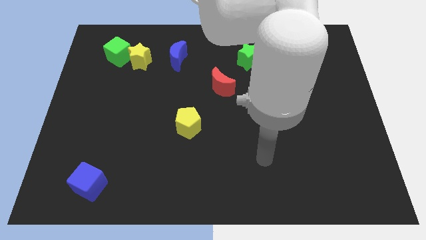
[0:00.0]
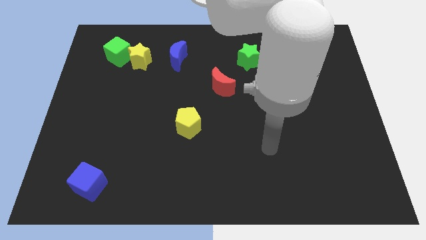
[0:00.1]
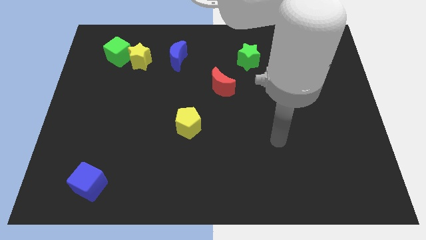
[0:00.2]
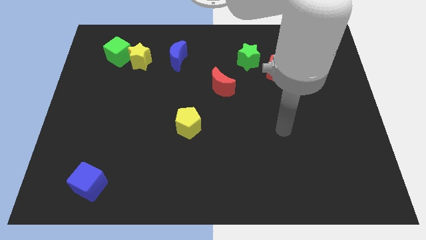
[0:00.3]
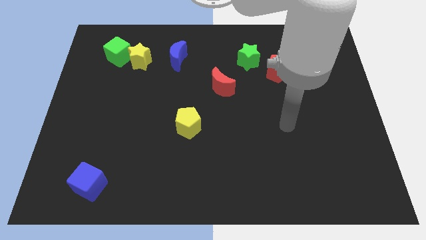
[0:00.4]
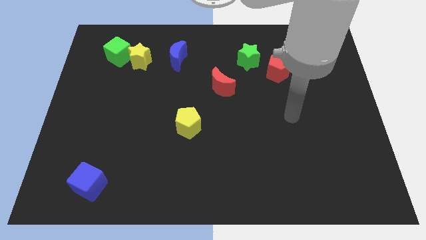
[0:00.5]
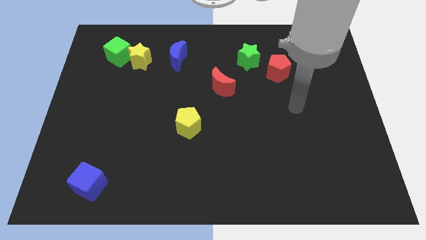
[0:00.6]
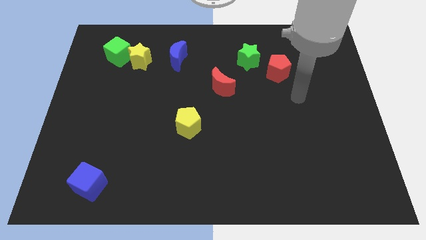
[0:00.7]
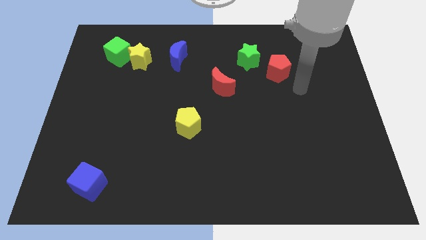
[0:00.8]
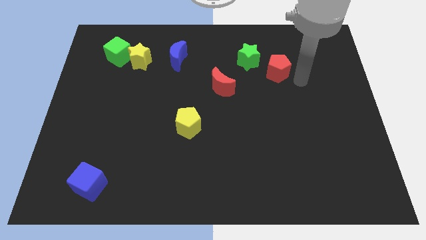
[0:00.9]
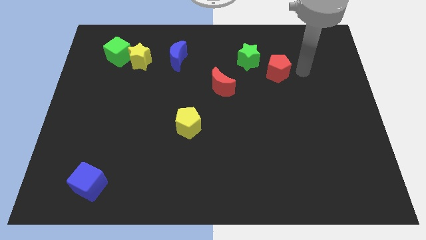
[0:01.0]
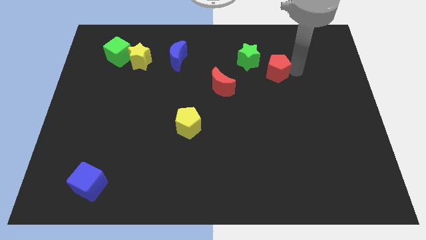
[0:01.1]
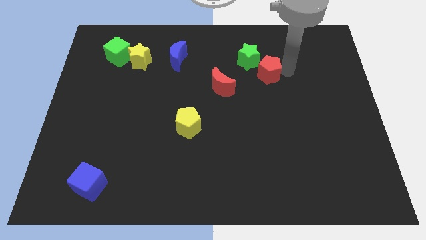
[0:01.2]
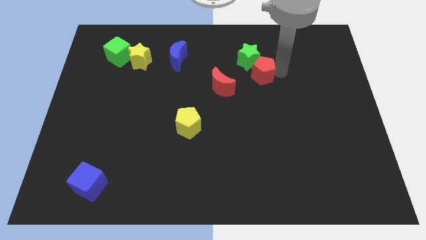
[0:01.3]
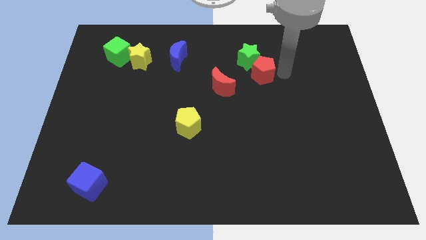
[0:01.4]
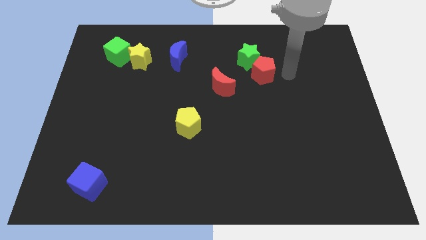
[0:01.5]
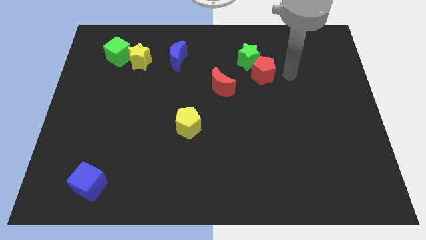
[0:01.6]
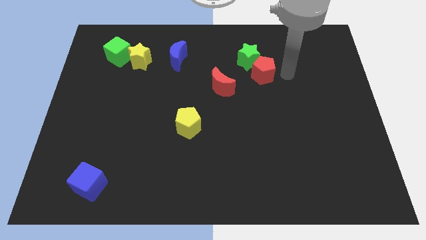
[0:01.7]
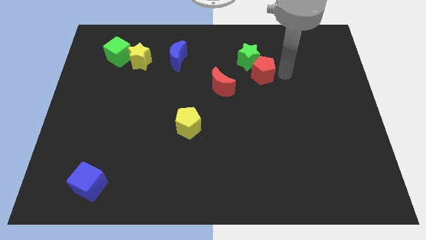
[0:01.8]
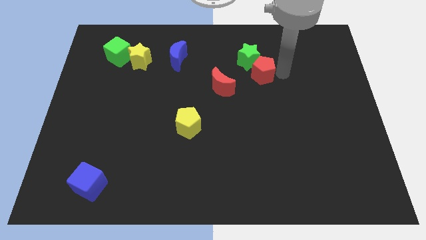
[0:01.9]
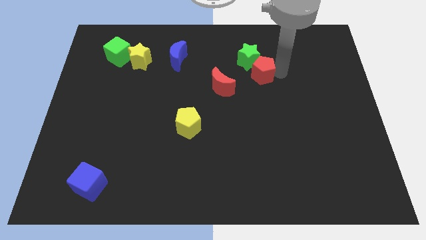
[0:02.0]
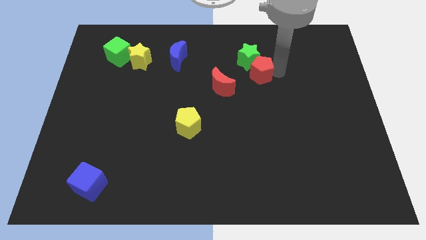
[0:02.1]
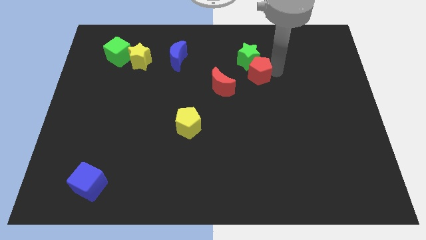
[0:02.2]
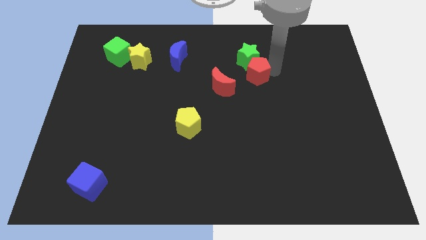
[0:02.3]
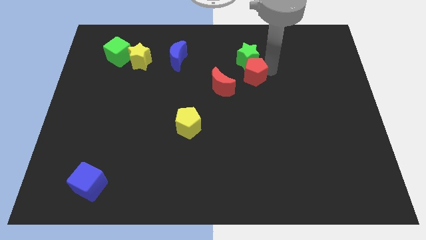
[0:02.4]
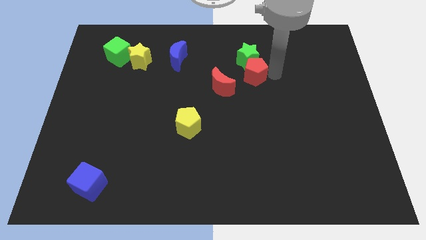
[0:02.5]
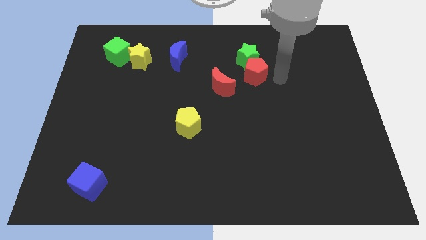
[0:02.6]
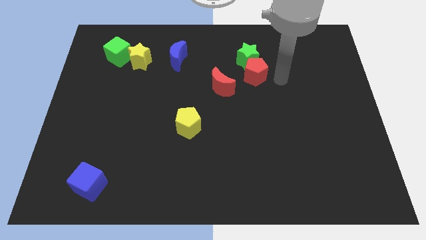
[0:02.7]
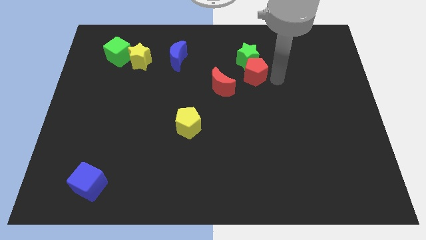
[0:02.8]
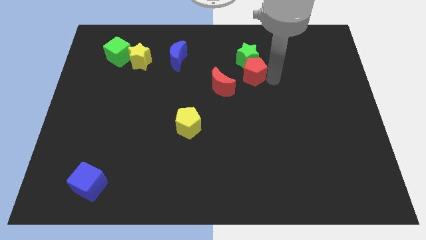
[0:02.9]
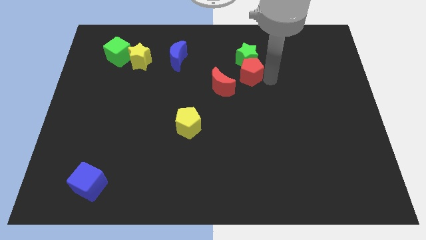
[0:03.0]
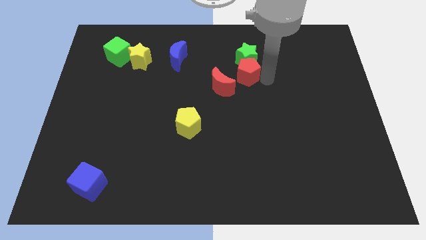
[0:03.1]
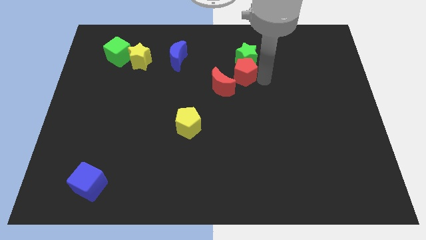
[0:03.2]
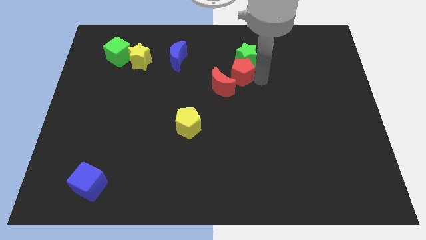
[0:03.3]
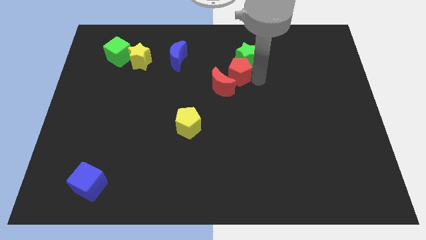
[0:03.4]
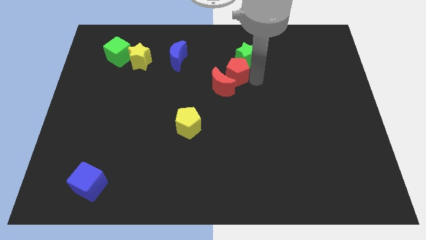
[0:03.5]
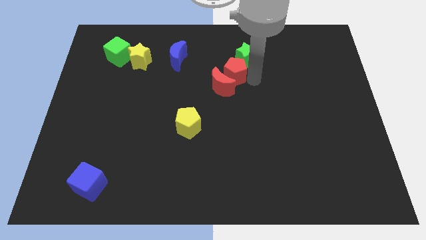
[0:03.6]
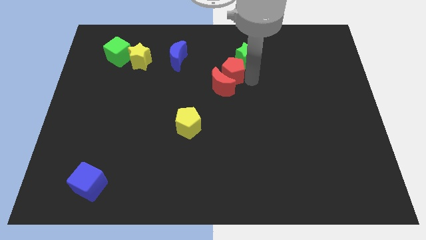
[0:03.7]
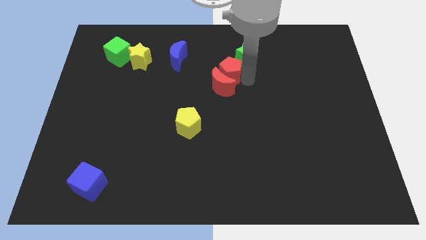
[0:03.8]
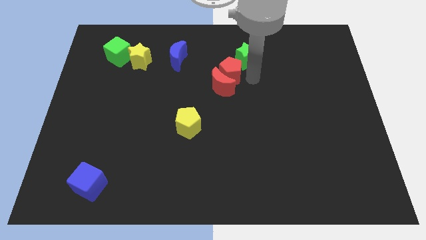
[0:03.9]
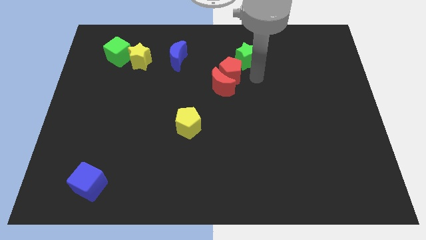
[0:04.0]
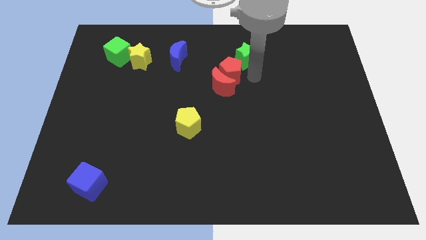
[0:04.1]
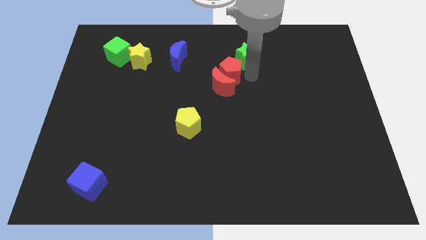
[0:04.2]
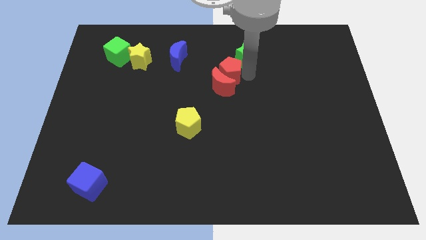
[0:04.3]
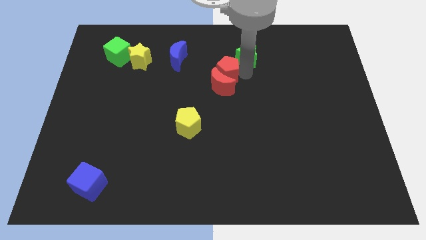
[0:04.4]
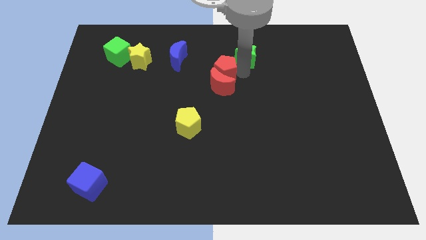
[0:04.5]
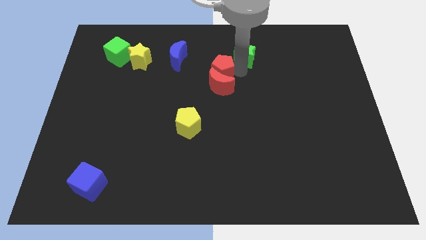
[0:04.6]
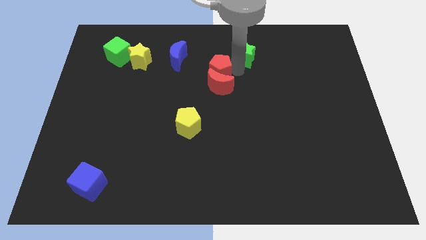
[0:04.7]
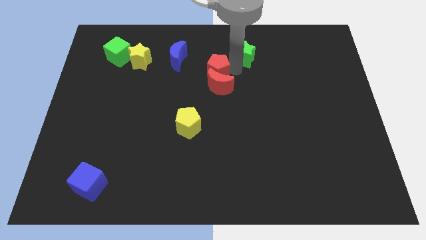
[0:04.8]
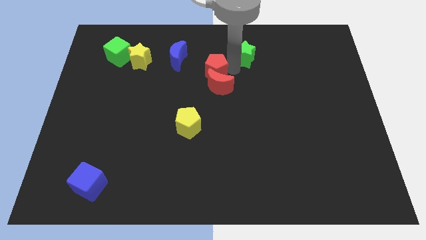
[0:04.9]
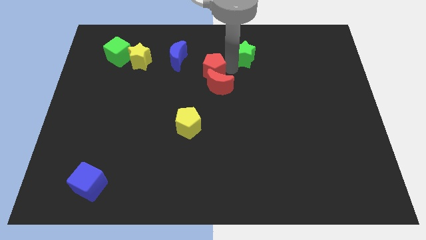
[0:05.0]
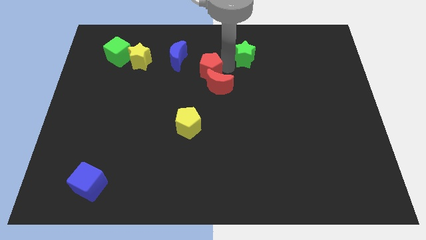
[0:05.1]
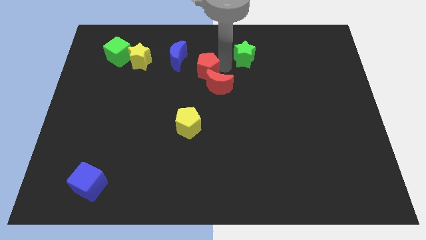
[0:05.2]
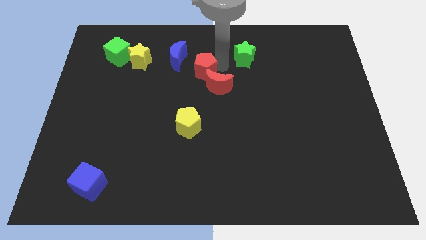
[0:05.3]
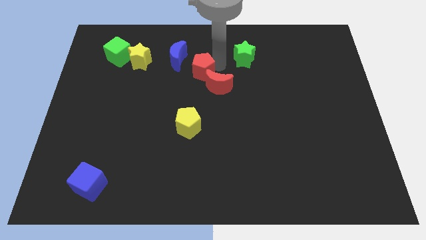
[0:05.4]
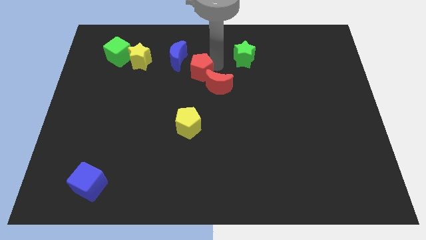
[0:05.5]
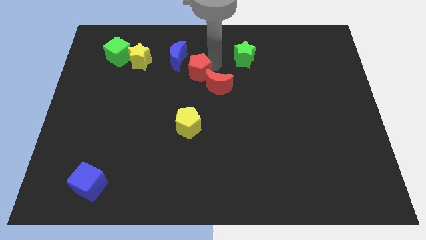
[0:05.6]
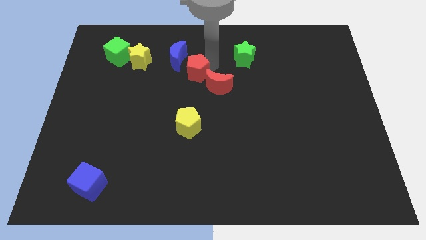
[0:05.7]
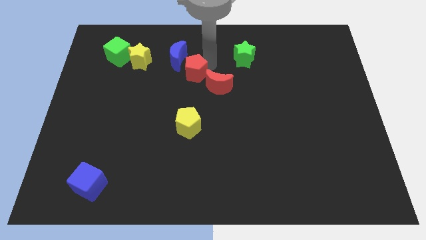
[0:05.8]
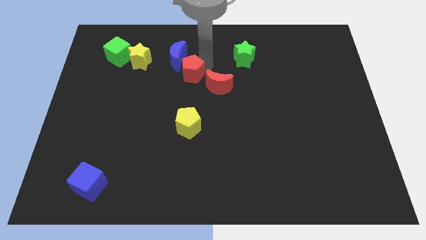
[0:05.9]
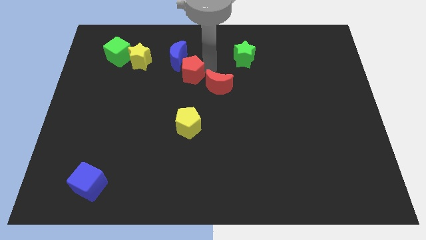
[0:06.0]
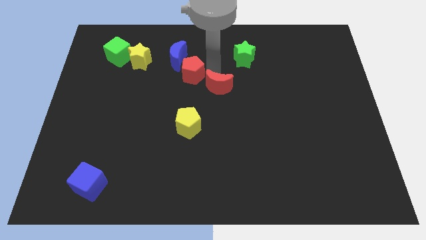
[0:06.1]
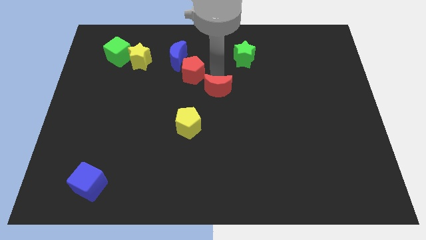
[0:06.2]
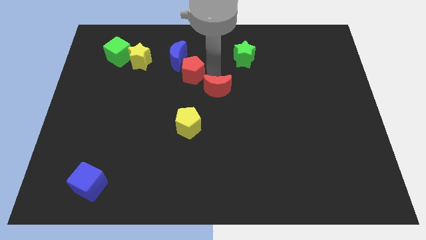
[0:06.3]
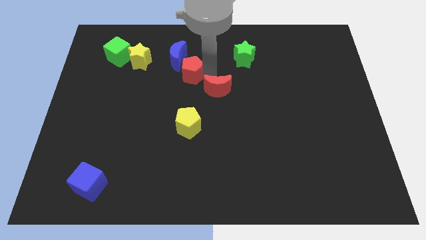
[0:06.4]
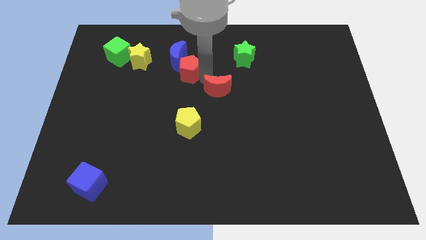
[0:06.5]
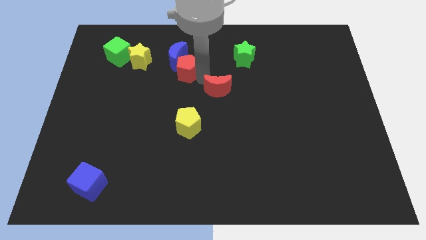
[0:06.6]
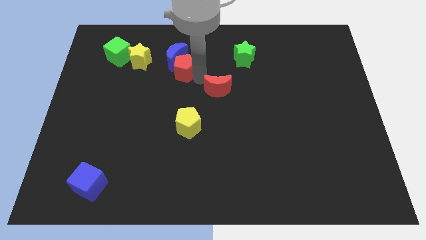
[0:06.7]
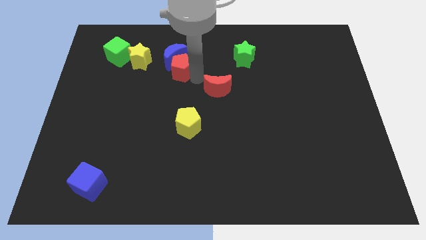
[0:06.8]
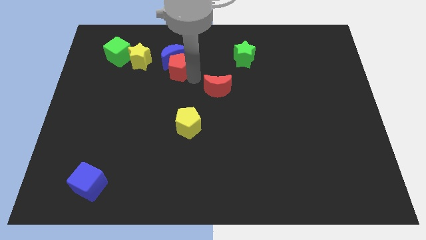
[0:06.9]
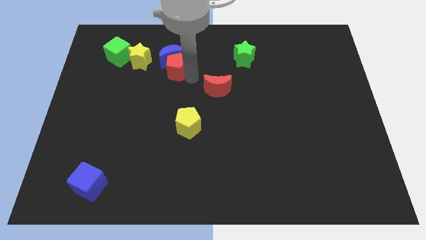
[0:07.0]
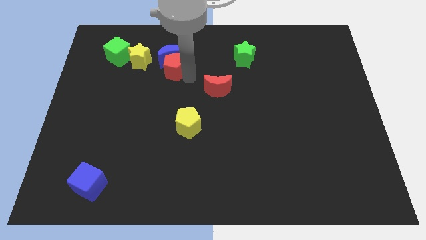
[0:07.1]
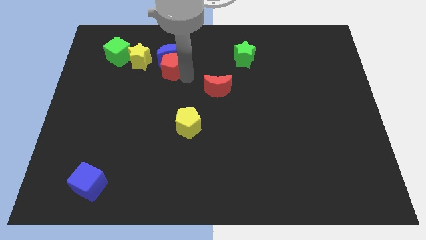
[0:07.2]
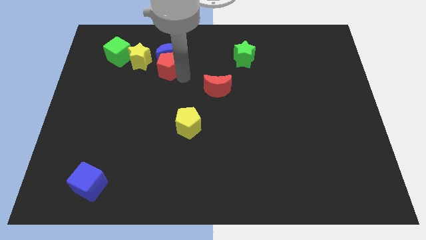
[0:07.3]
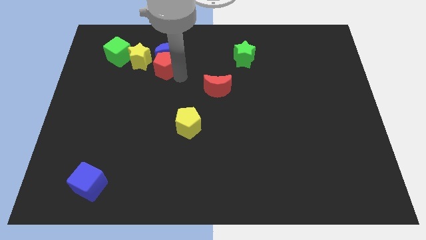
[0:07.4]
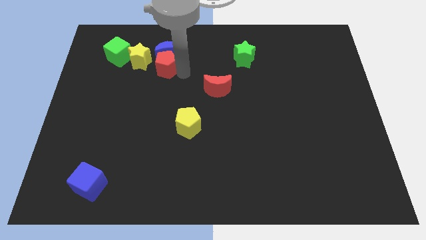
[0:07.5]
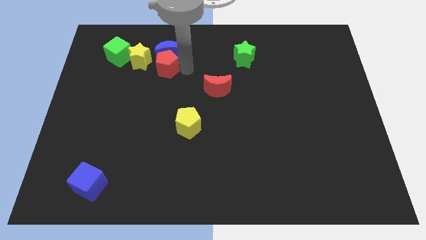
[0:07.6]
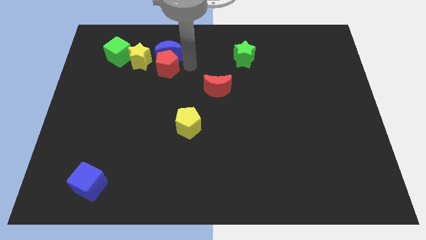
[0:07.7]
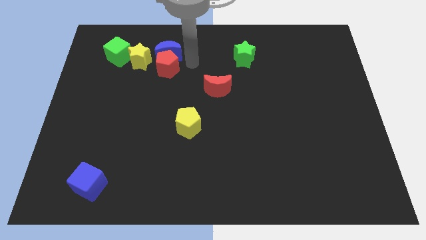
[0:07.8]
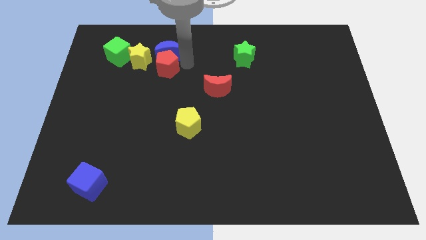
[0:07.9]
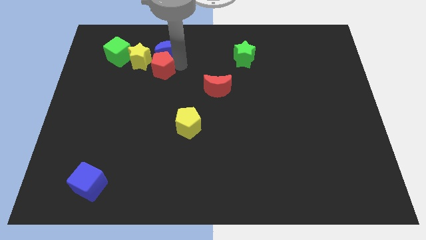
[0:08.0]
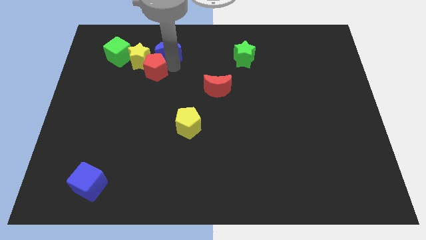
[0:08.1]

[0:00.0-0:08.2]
move the red pentagon to the bottom right of the green cube
